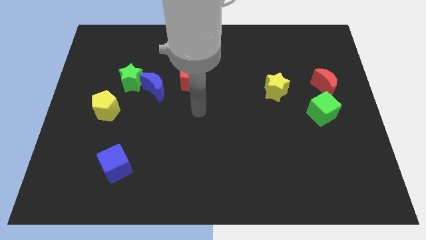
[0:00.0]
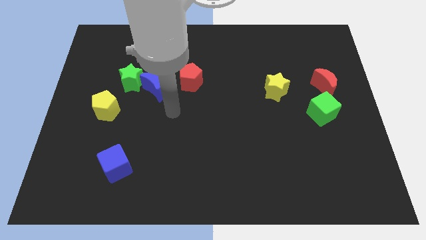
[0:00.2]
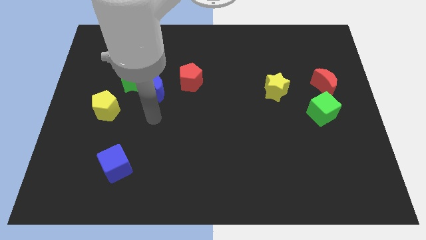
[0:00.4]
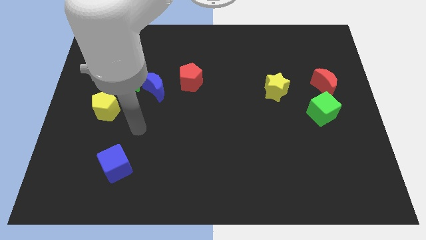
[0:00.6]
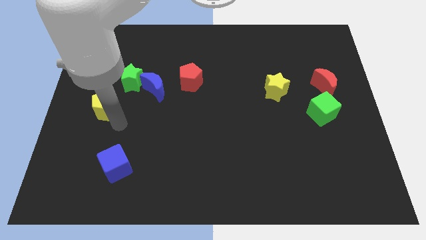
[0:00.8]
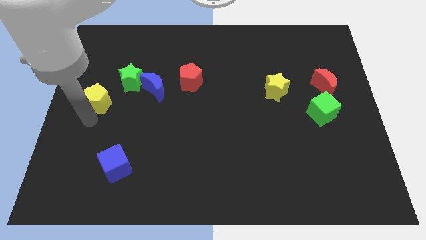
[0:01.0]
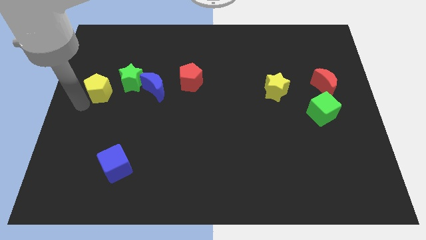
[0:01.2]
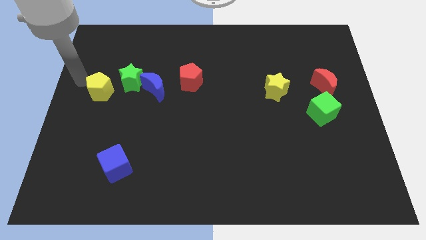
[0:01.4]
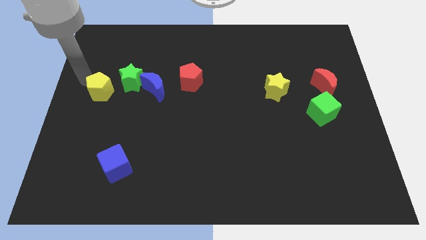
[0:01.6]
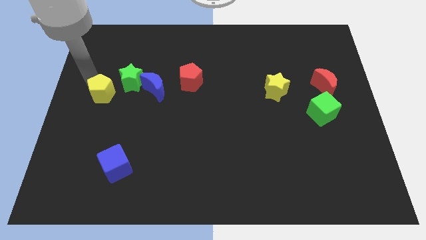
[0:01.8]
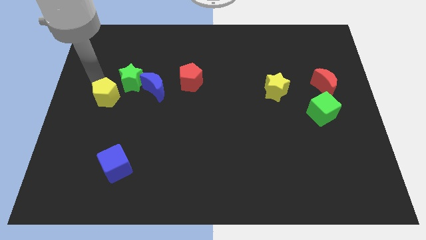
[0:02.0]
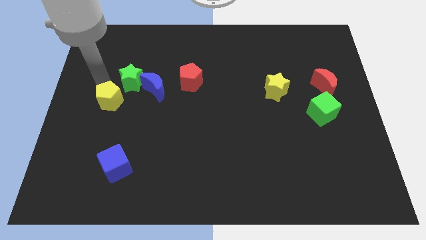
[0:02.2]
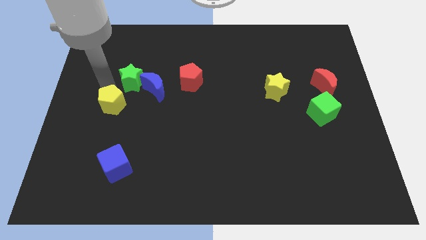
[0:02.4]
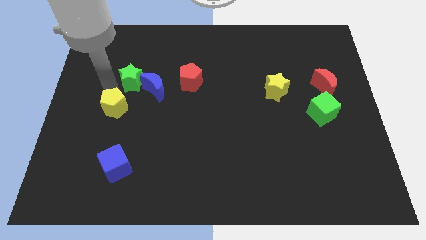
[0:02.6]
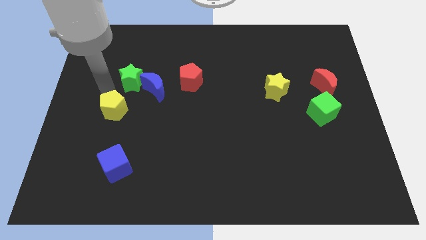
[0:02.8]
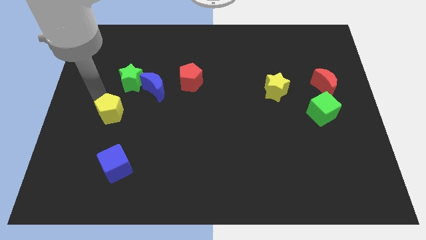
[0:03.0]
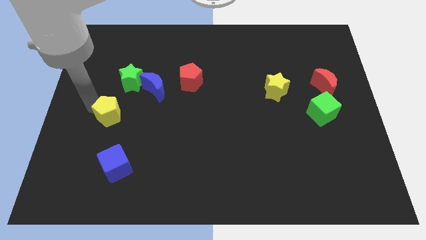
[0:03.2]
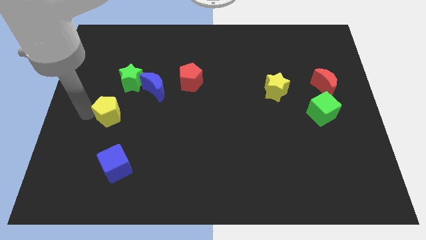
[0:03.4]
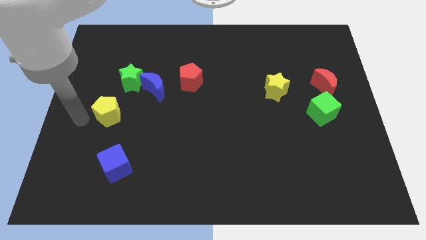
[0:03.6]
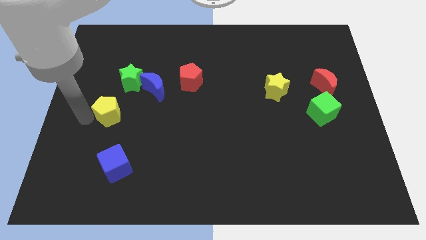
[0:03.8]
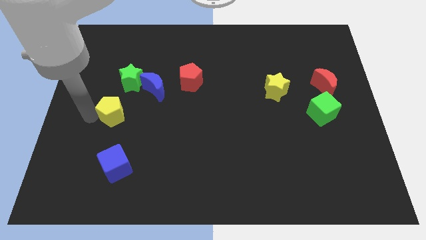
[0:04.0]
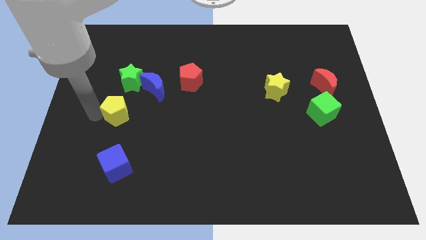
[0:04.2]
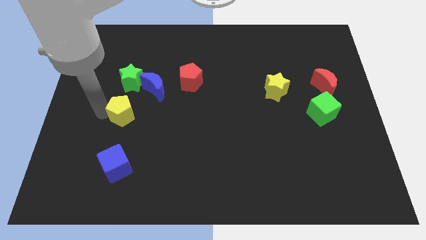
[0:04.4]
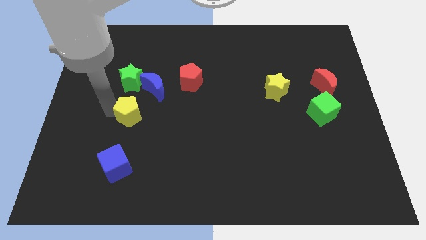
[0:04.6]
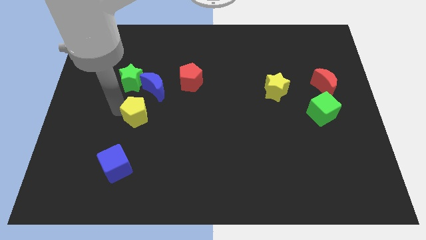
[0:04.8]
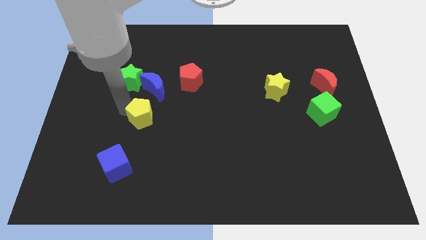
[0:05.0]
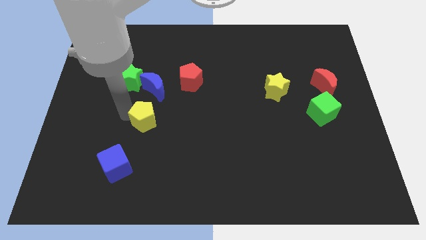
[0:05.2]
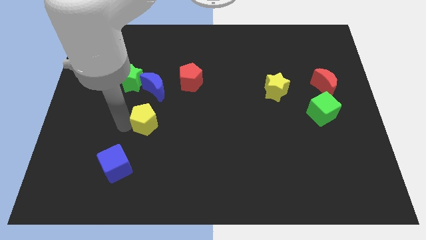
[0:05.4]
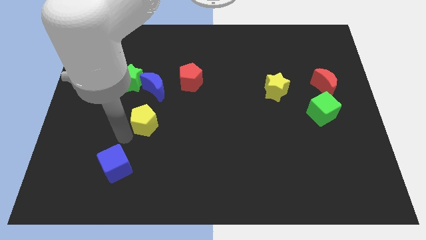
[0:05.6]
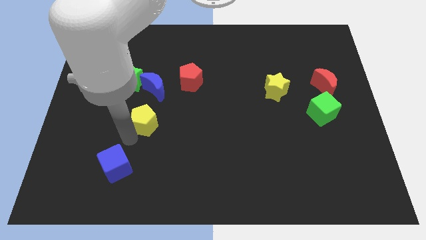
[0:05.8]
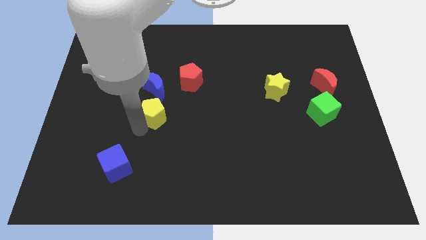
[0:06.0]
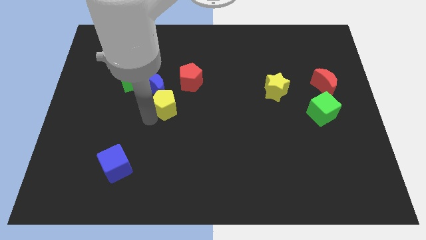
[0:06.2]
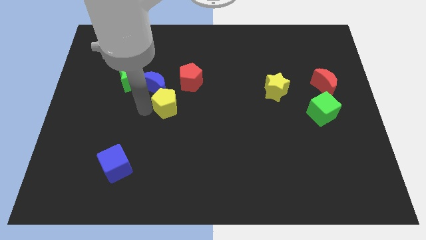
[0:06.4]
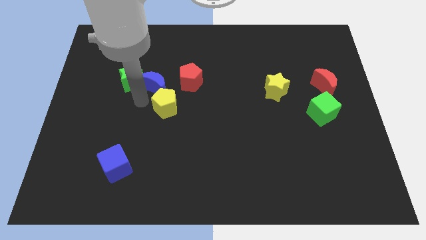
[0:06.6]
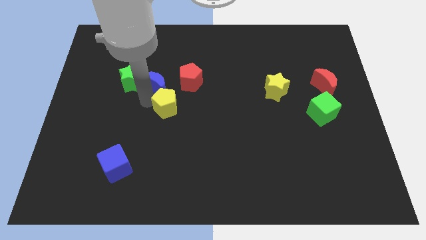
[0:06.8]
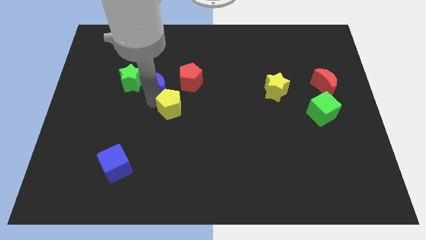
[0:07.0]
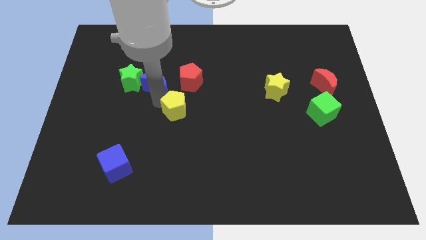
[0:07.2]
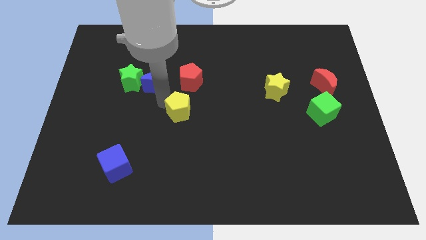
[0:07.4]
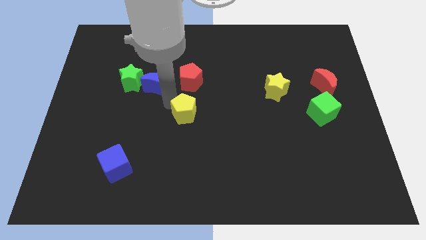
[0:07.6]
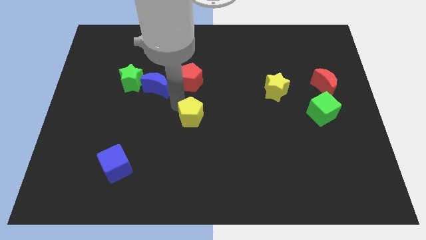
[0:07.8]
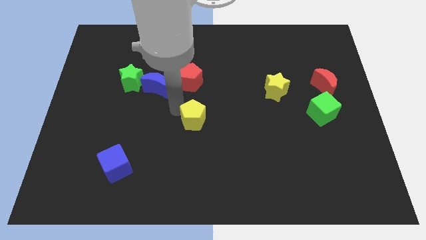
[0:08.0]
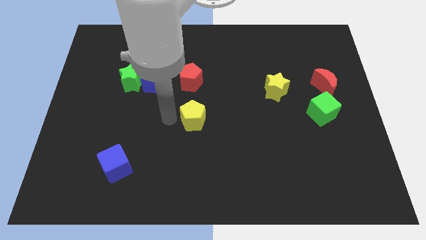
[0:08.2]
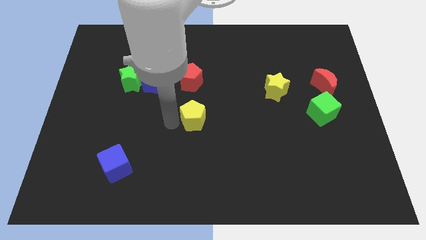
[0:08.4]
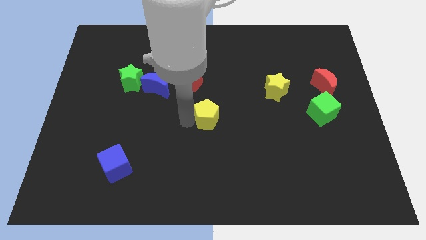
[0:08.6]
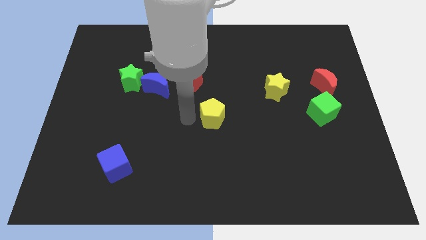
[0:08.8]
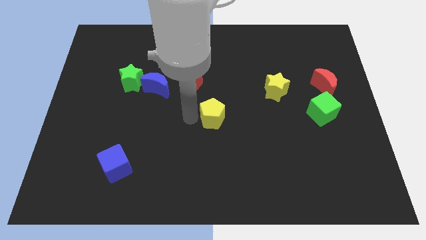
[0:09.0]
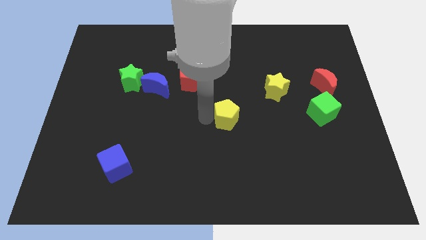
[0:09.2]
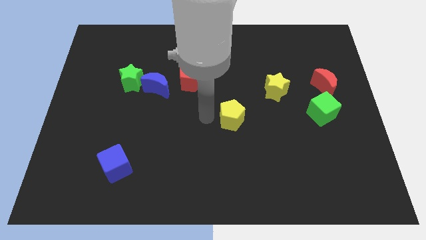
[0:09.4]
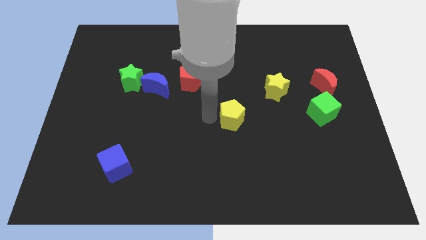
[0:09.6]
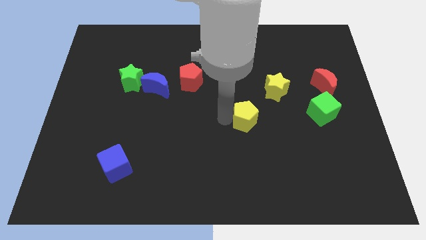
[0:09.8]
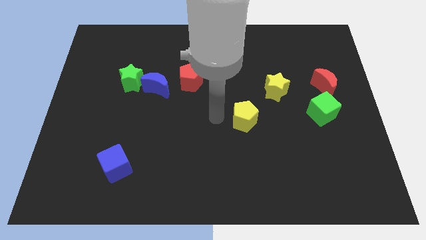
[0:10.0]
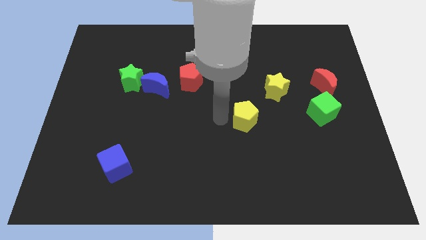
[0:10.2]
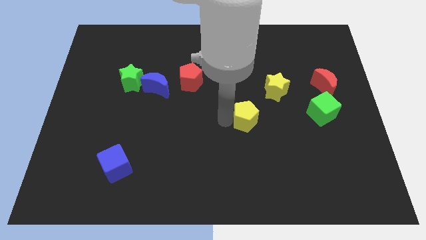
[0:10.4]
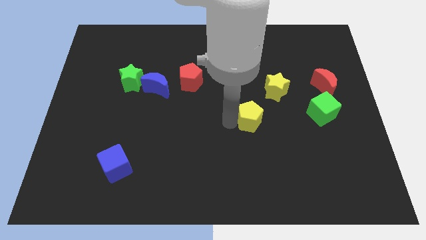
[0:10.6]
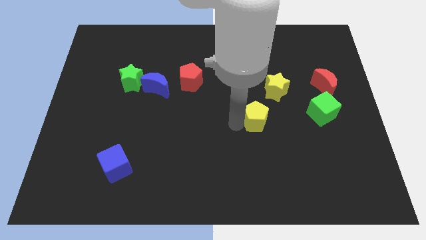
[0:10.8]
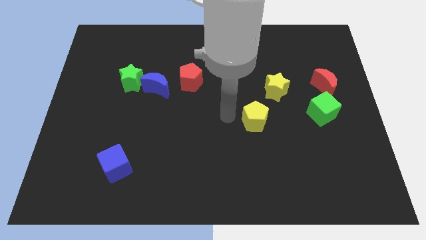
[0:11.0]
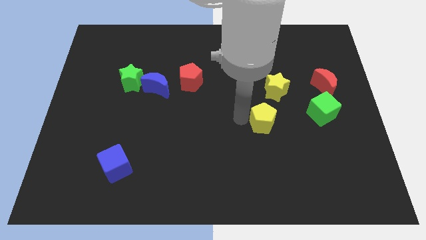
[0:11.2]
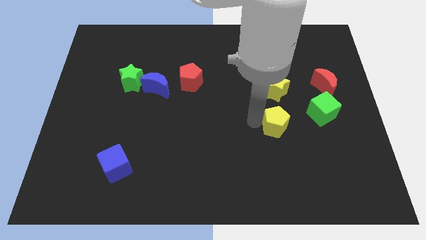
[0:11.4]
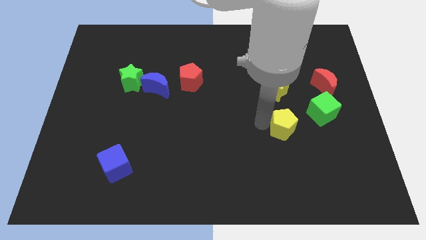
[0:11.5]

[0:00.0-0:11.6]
move the yellow pentagon to the bottom left side of the green cube

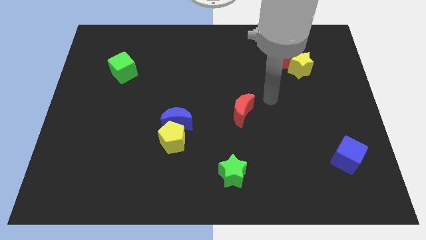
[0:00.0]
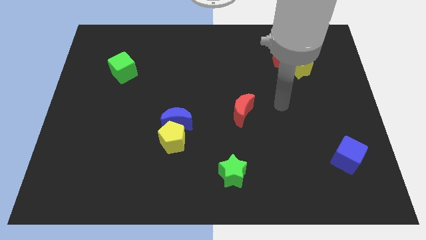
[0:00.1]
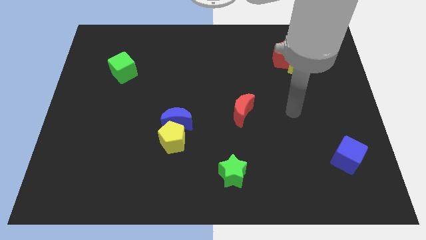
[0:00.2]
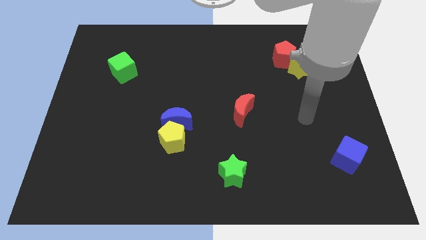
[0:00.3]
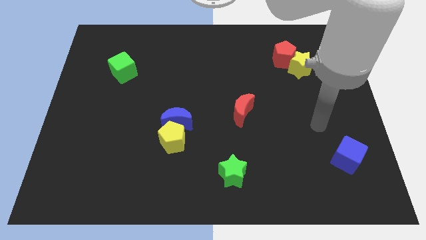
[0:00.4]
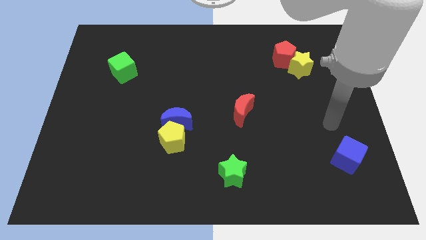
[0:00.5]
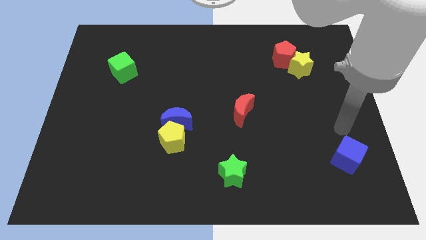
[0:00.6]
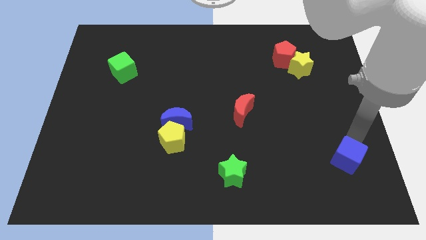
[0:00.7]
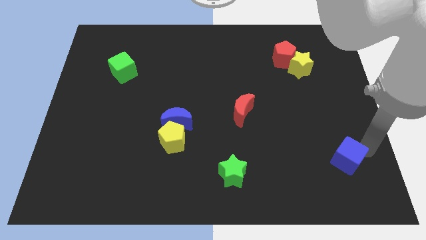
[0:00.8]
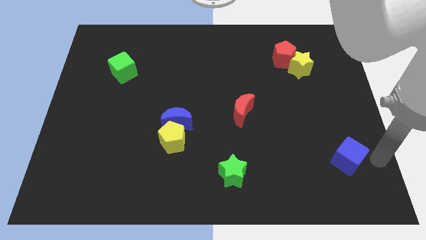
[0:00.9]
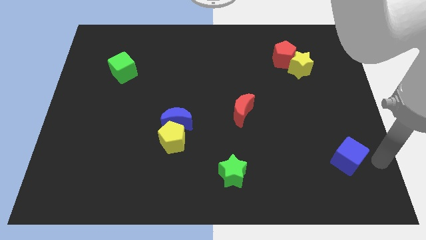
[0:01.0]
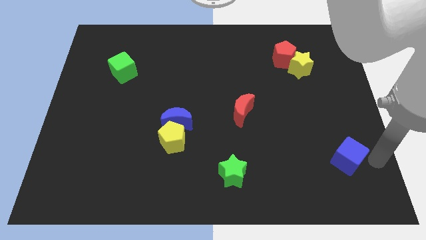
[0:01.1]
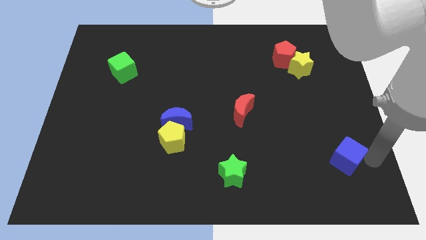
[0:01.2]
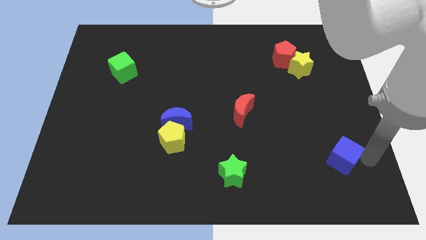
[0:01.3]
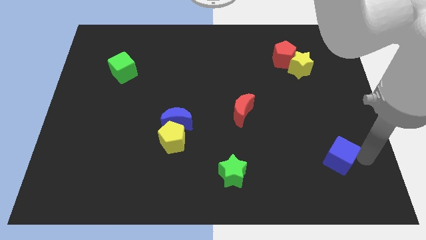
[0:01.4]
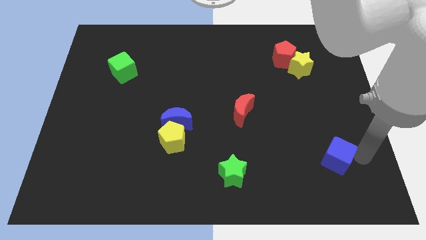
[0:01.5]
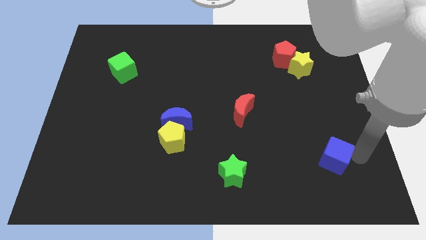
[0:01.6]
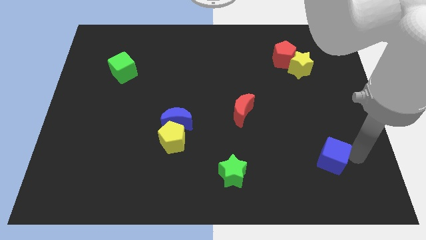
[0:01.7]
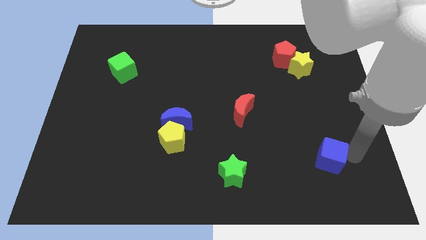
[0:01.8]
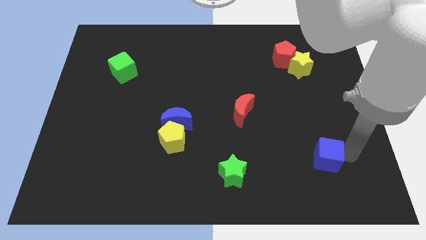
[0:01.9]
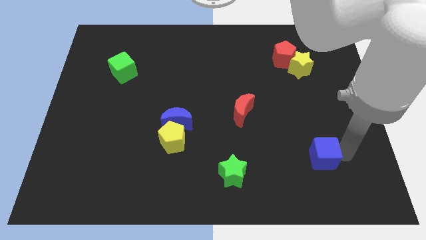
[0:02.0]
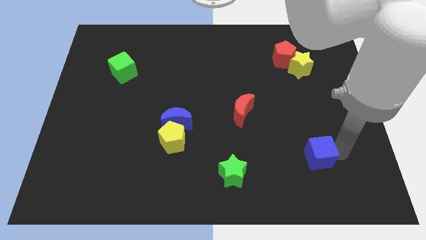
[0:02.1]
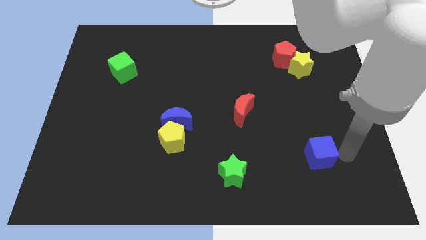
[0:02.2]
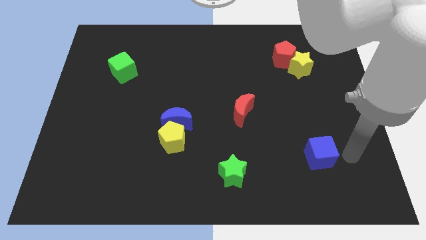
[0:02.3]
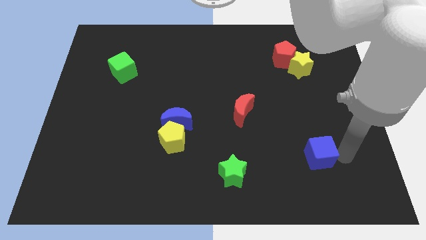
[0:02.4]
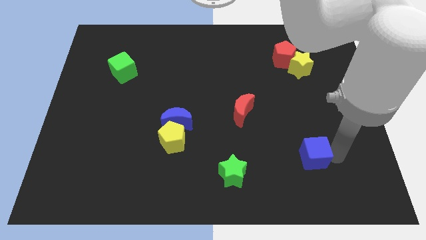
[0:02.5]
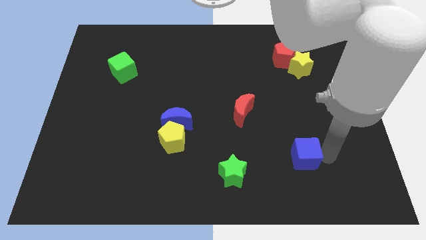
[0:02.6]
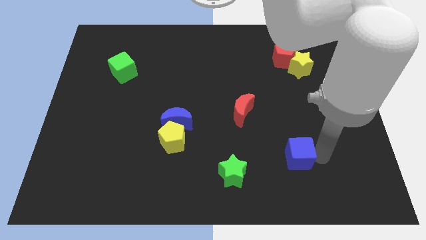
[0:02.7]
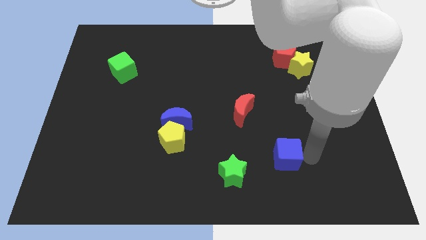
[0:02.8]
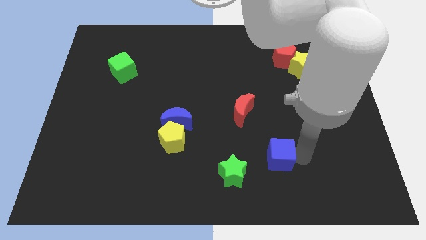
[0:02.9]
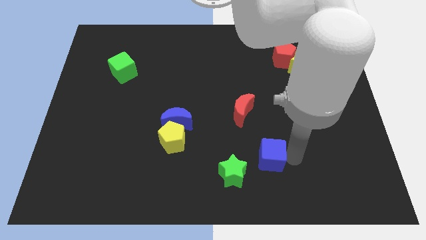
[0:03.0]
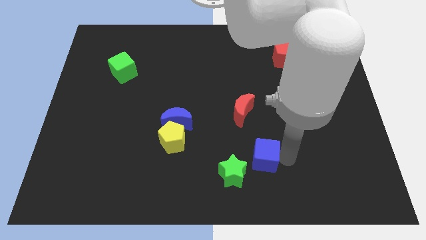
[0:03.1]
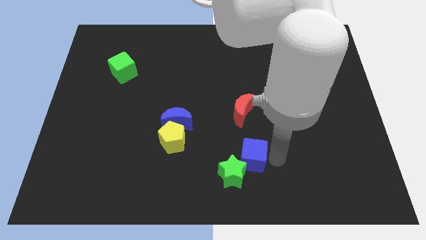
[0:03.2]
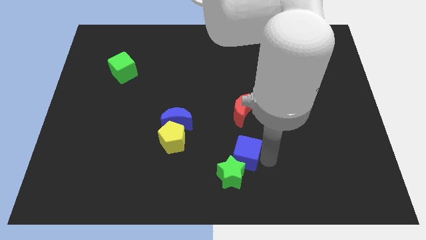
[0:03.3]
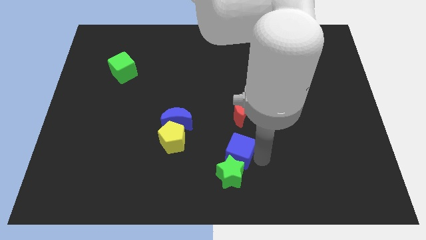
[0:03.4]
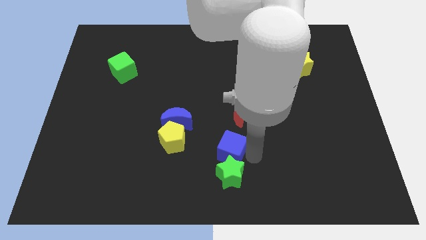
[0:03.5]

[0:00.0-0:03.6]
put the blue cube to the top left side of the green star
